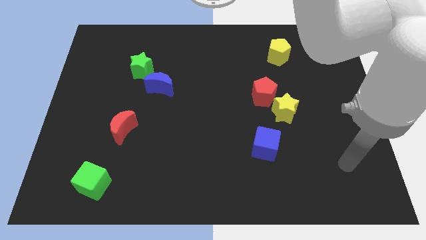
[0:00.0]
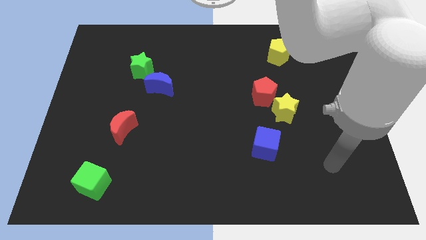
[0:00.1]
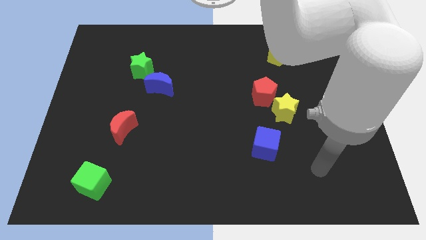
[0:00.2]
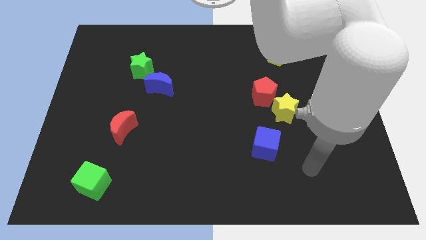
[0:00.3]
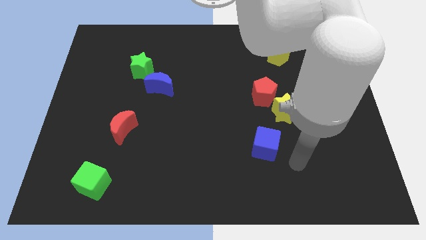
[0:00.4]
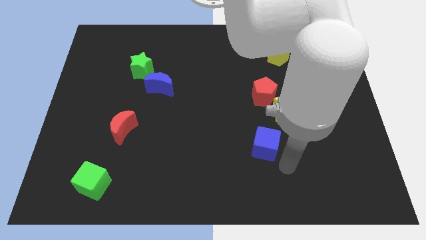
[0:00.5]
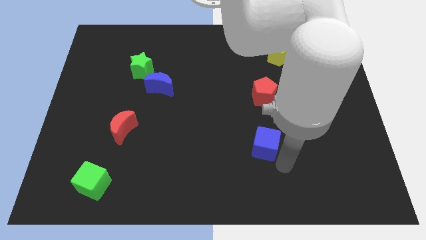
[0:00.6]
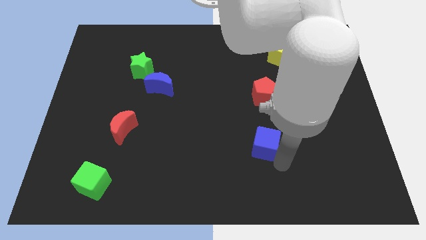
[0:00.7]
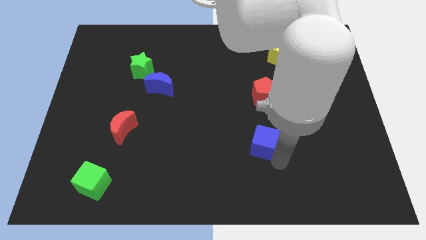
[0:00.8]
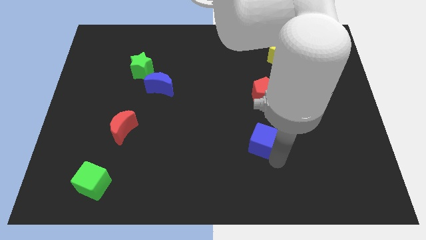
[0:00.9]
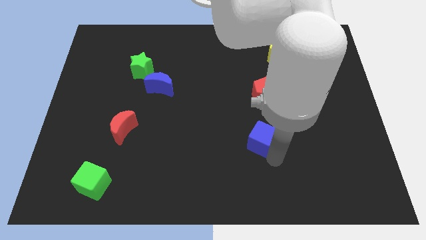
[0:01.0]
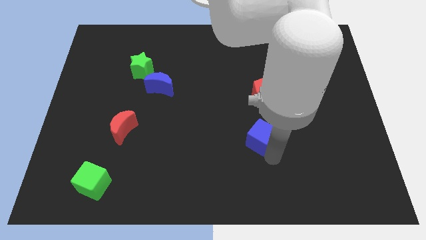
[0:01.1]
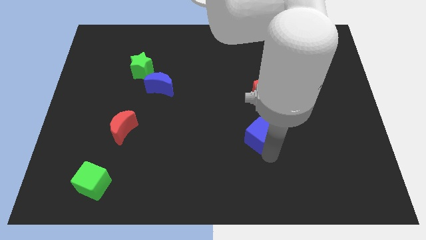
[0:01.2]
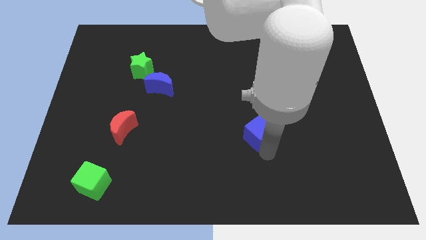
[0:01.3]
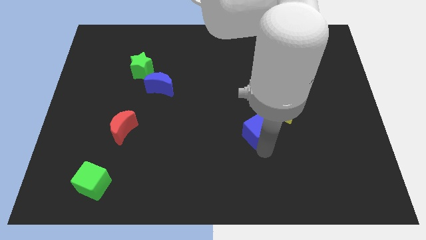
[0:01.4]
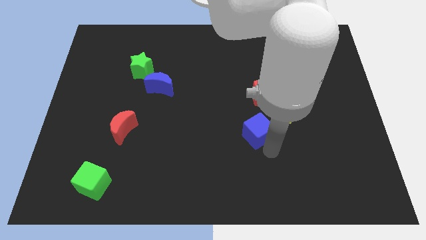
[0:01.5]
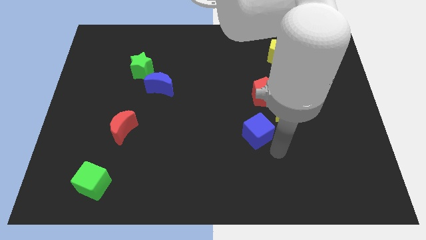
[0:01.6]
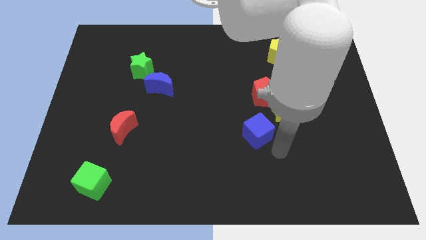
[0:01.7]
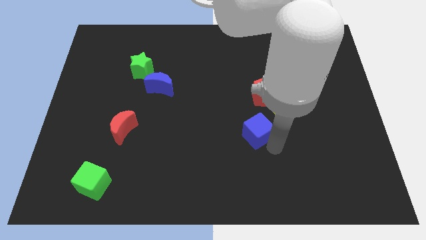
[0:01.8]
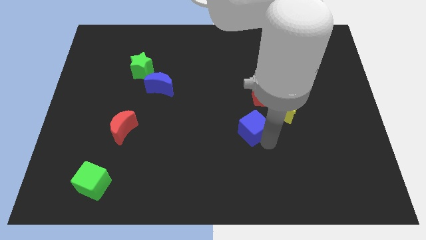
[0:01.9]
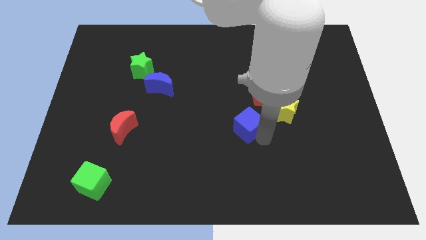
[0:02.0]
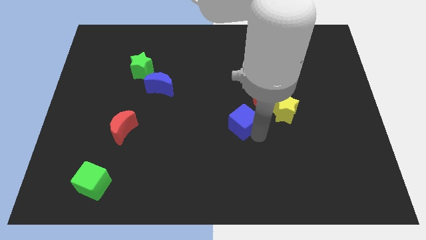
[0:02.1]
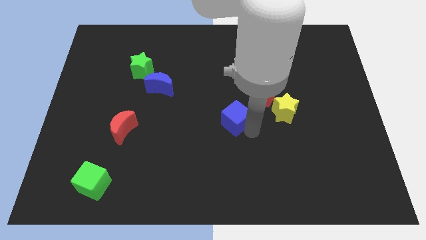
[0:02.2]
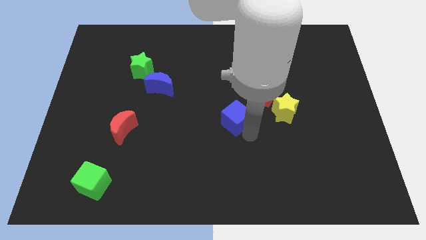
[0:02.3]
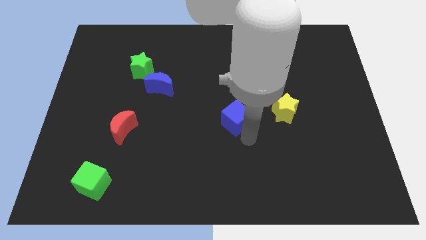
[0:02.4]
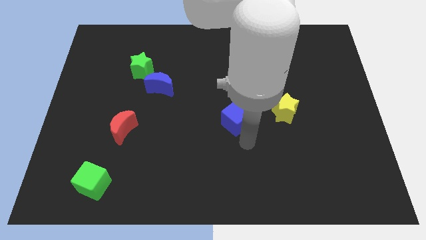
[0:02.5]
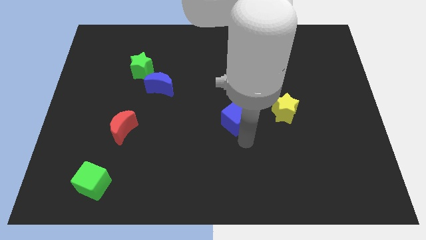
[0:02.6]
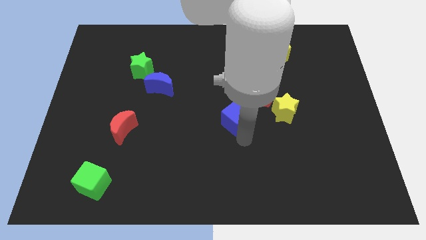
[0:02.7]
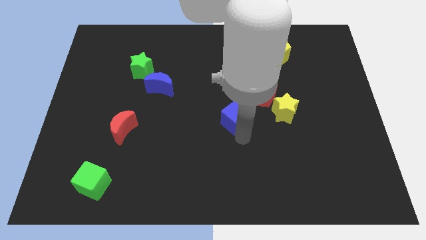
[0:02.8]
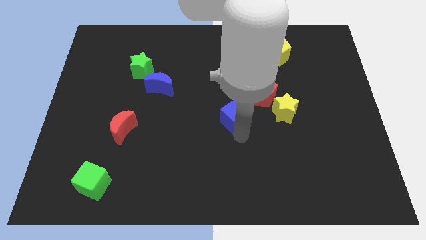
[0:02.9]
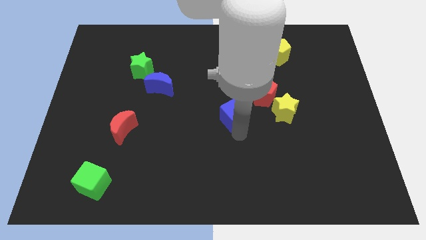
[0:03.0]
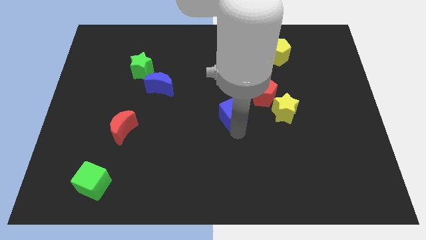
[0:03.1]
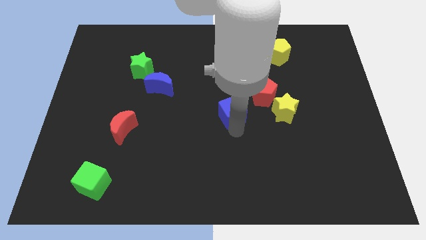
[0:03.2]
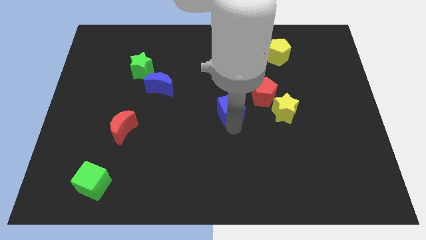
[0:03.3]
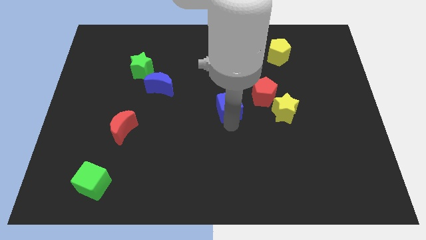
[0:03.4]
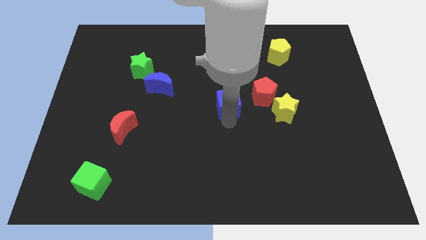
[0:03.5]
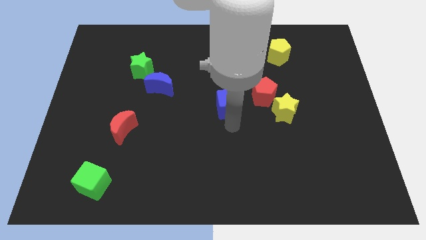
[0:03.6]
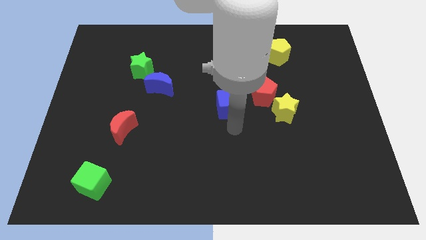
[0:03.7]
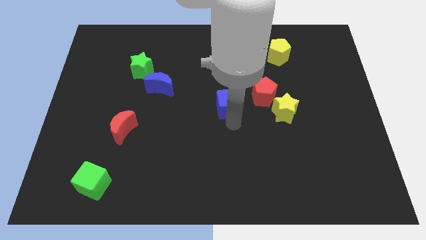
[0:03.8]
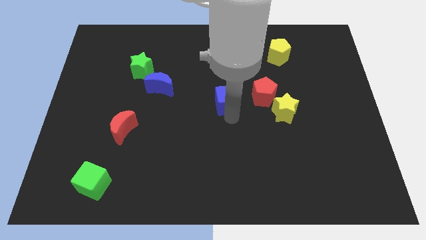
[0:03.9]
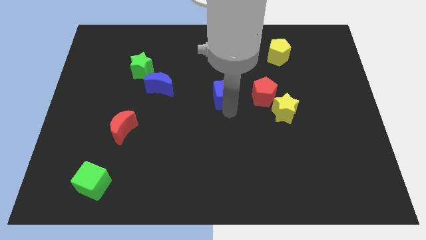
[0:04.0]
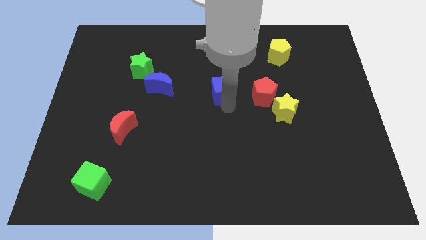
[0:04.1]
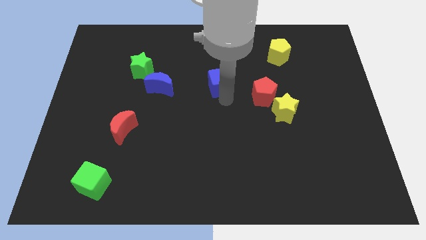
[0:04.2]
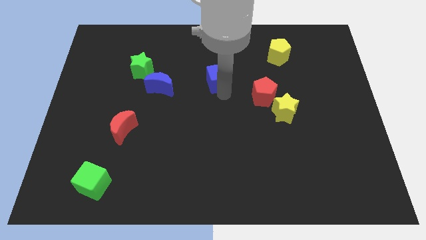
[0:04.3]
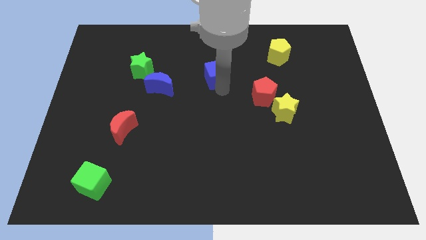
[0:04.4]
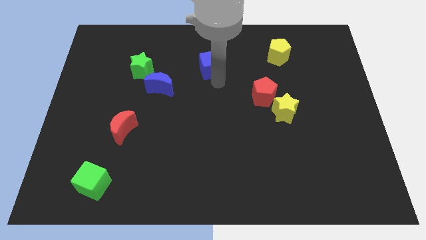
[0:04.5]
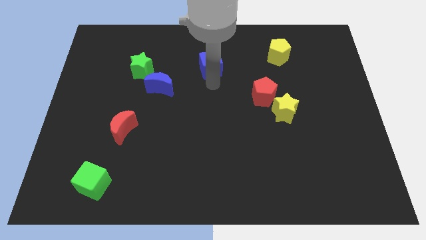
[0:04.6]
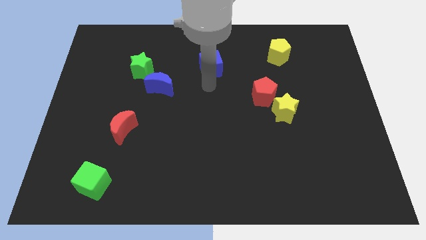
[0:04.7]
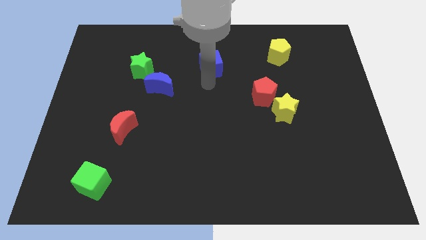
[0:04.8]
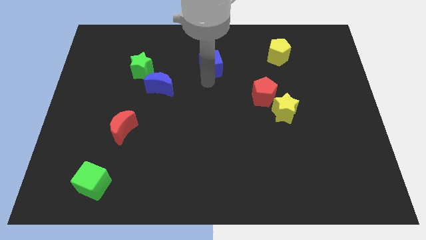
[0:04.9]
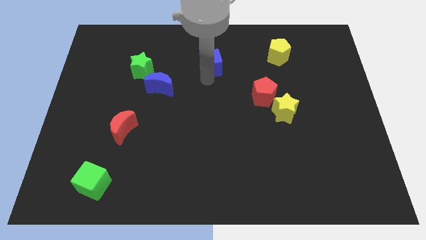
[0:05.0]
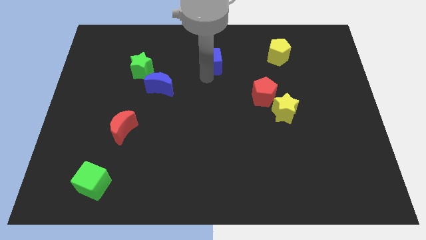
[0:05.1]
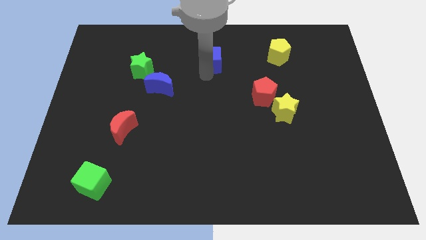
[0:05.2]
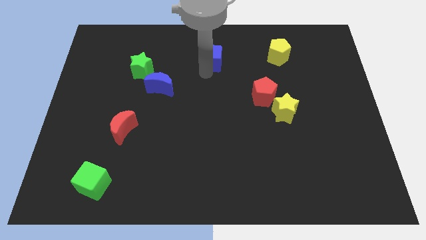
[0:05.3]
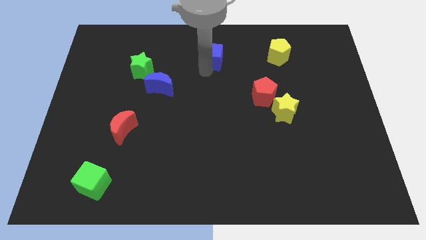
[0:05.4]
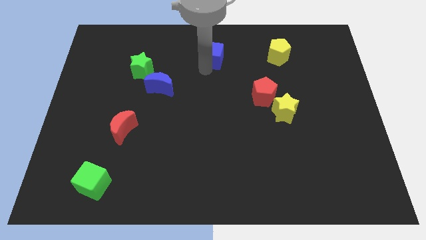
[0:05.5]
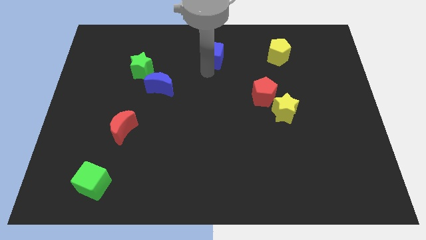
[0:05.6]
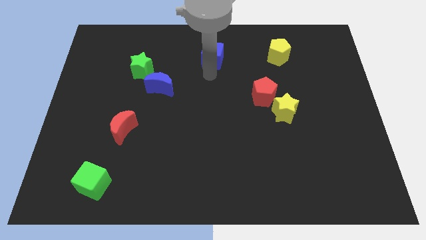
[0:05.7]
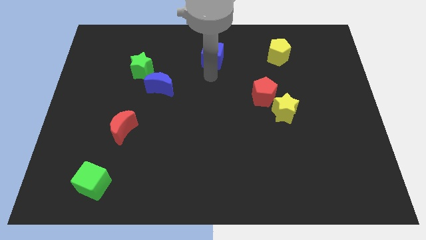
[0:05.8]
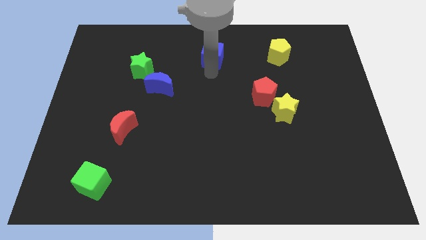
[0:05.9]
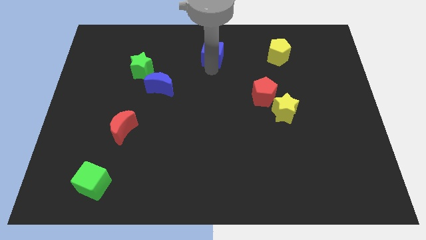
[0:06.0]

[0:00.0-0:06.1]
push the blue cube to the top

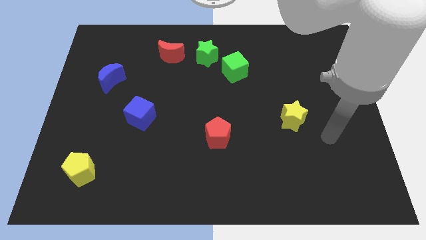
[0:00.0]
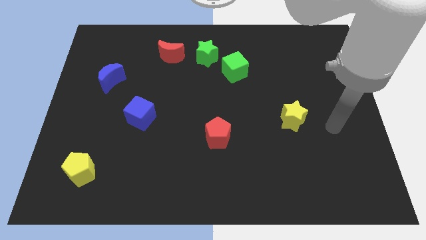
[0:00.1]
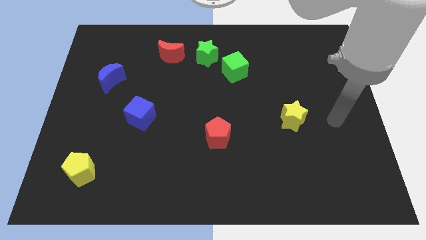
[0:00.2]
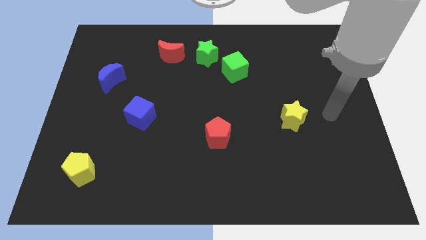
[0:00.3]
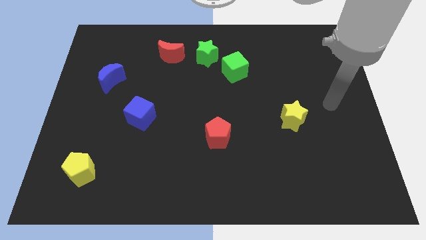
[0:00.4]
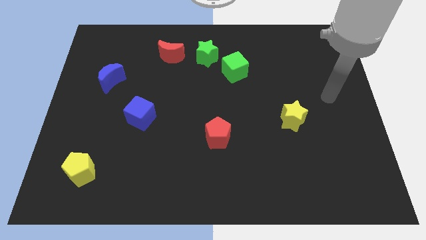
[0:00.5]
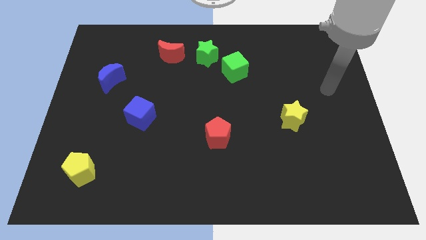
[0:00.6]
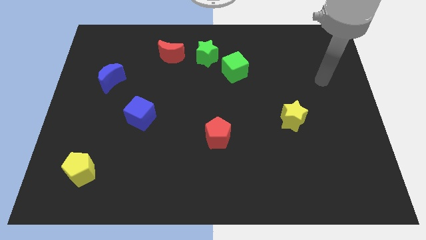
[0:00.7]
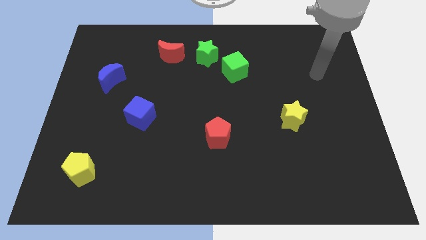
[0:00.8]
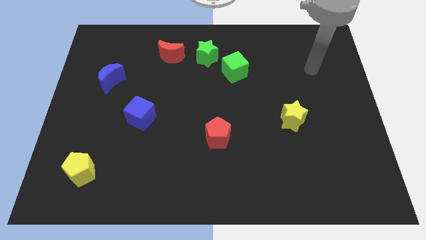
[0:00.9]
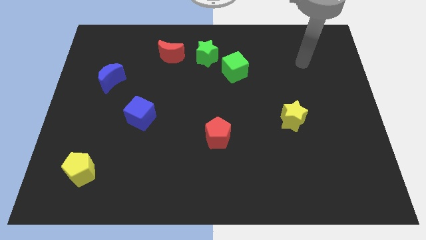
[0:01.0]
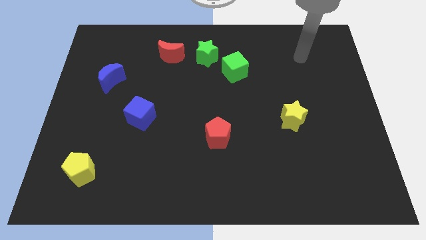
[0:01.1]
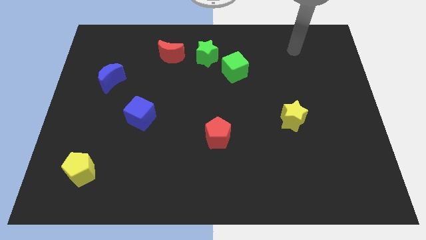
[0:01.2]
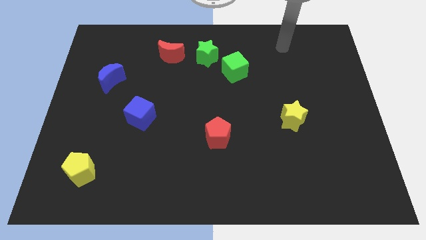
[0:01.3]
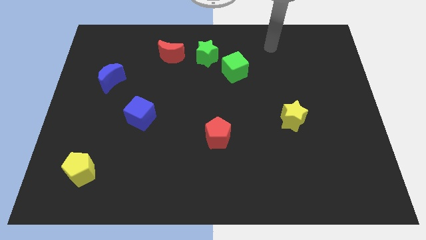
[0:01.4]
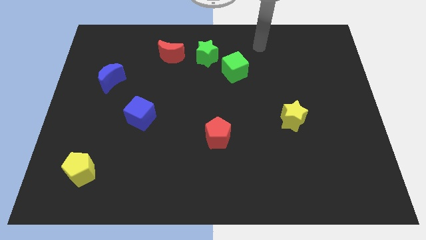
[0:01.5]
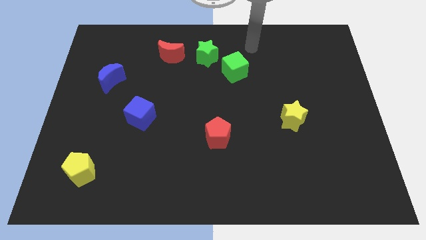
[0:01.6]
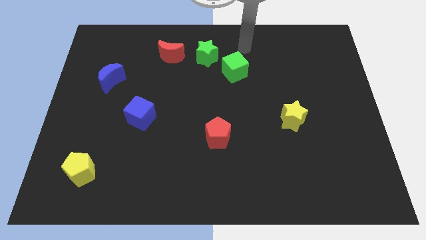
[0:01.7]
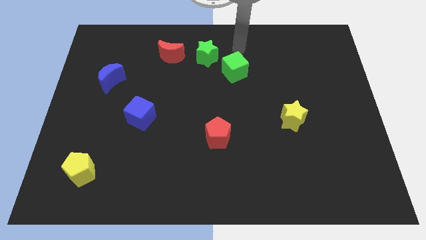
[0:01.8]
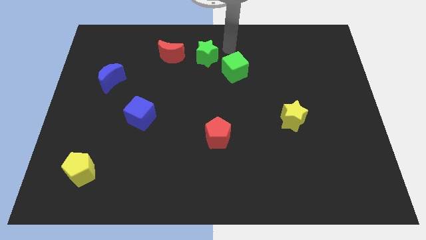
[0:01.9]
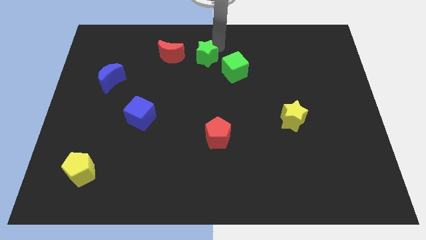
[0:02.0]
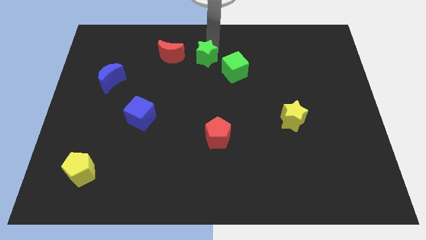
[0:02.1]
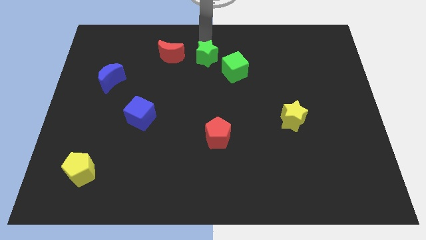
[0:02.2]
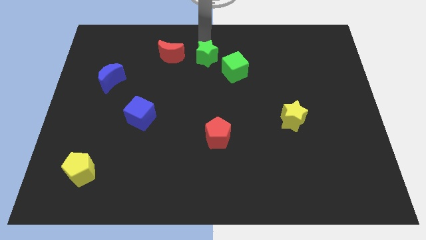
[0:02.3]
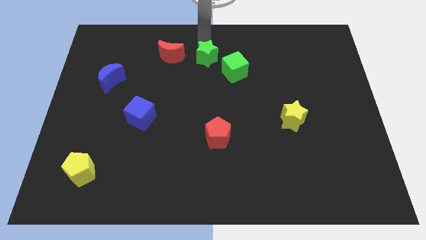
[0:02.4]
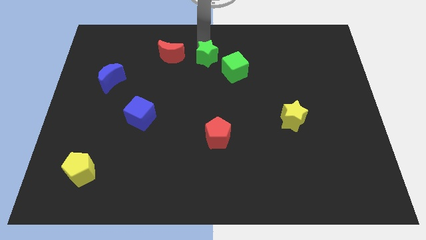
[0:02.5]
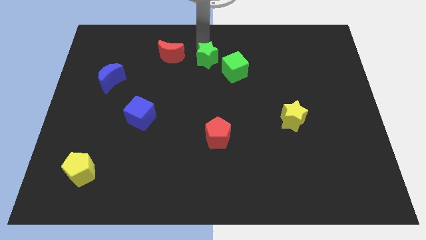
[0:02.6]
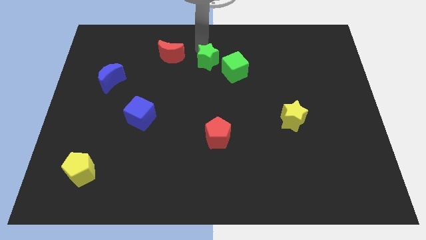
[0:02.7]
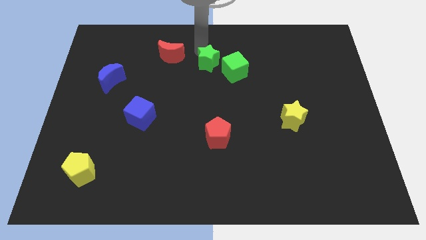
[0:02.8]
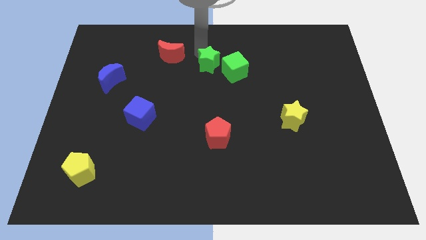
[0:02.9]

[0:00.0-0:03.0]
push the green star to the middle
